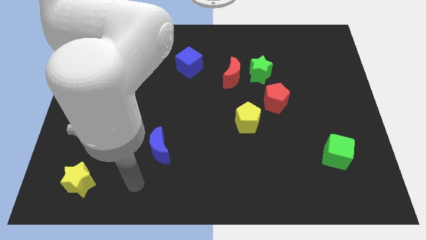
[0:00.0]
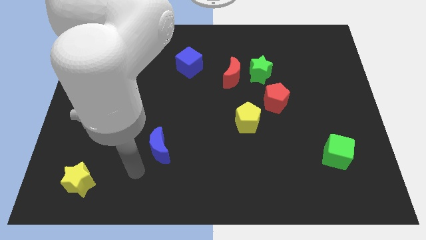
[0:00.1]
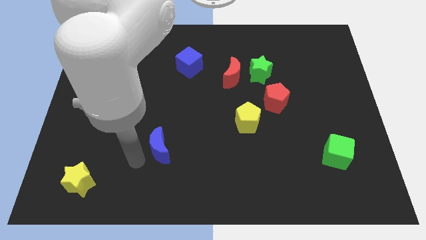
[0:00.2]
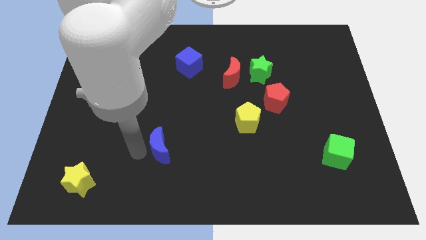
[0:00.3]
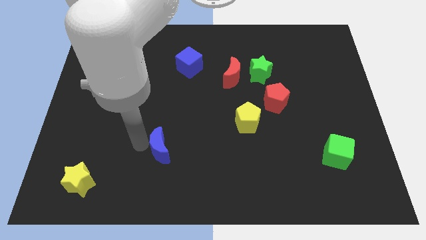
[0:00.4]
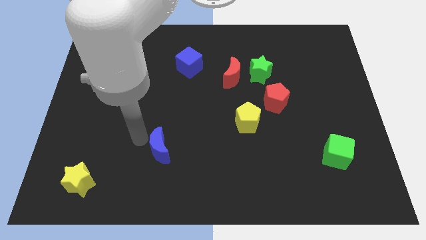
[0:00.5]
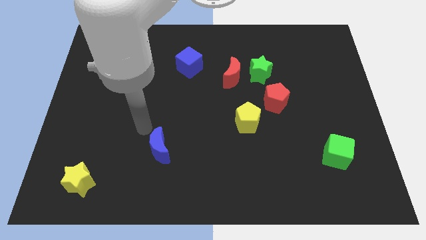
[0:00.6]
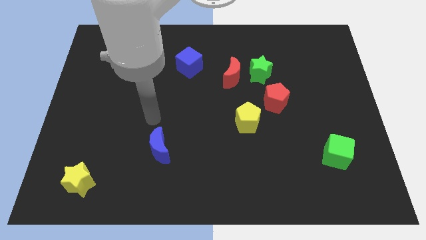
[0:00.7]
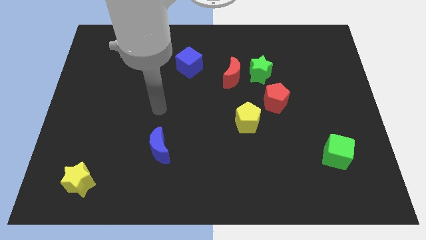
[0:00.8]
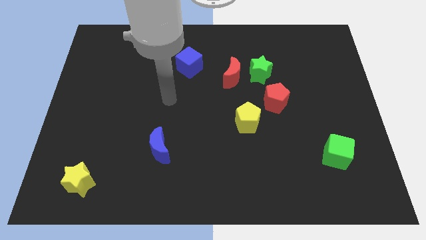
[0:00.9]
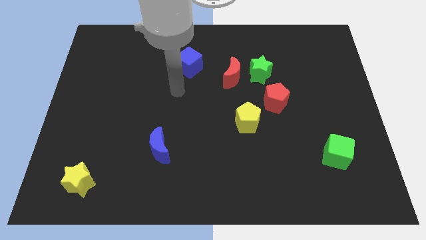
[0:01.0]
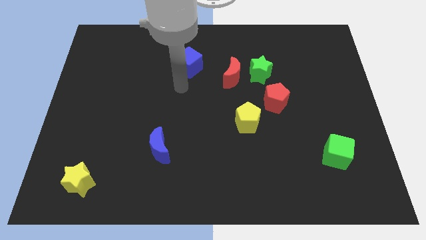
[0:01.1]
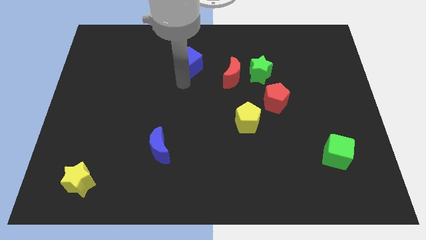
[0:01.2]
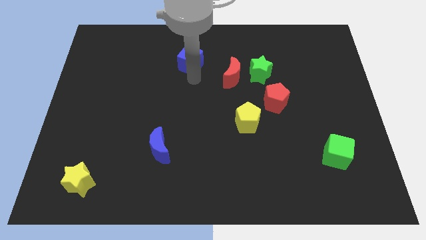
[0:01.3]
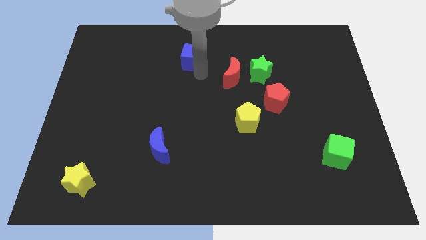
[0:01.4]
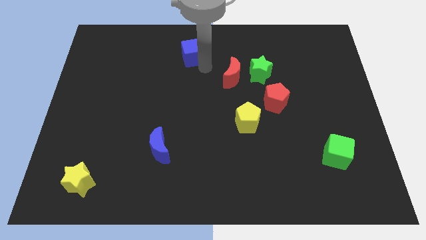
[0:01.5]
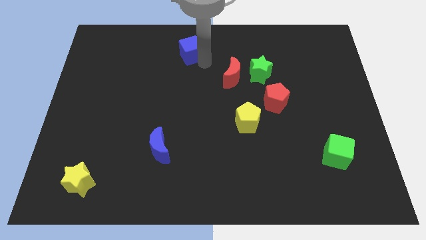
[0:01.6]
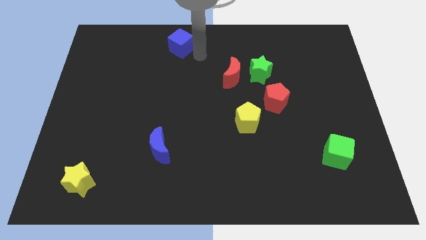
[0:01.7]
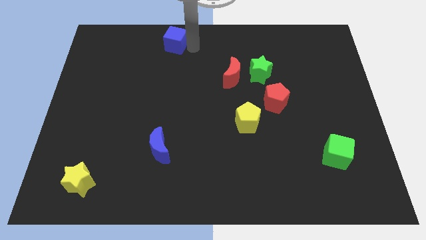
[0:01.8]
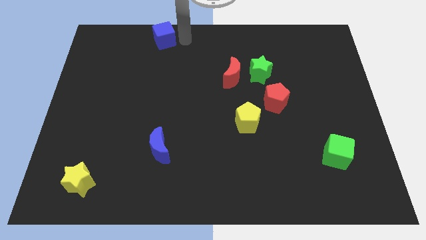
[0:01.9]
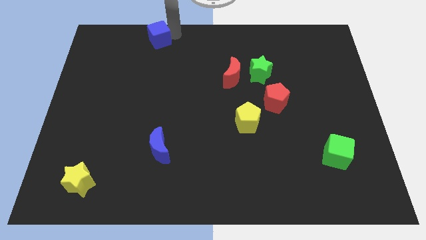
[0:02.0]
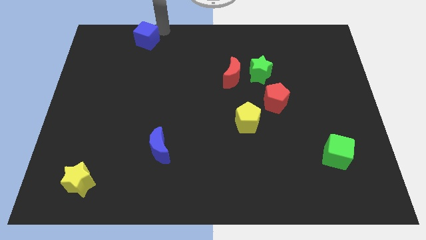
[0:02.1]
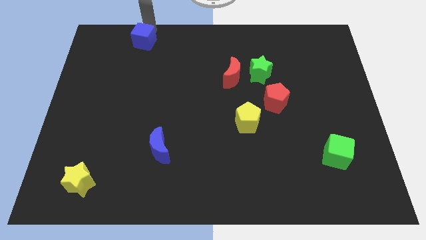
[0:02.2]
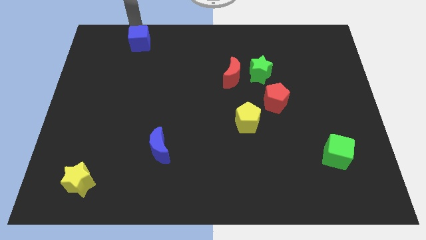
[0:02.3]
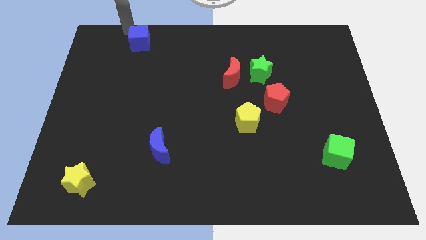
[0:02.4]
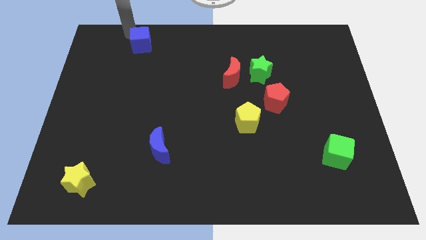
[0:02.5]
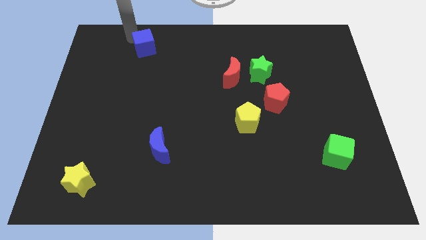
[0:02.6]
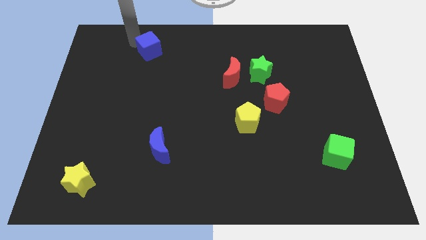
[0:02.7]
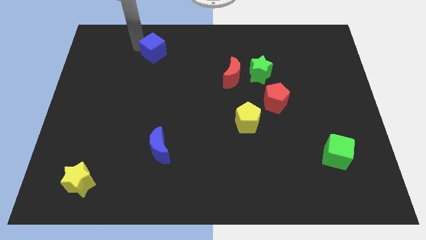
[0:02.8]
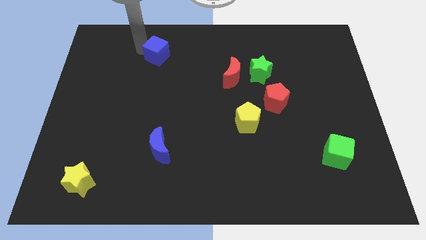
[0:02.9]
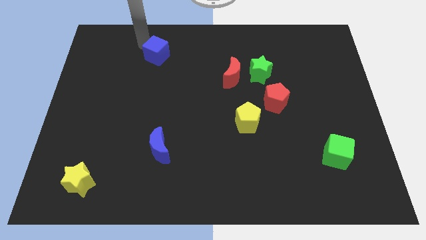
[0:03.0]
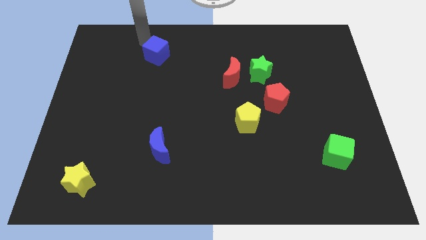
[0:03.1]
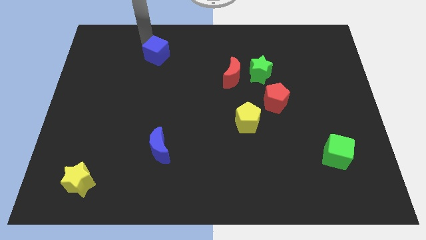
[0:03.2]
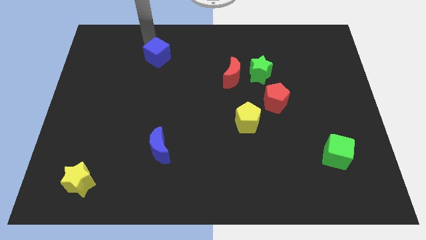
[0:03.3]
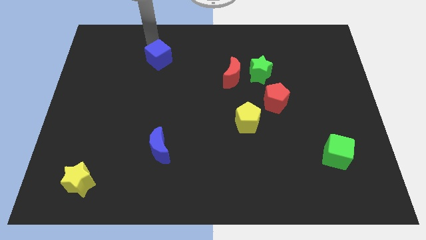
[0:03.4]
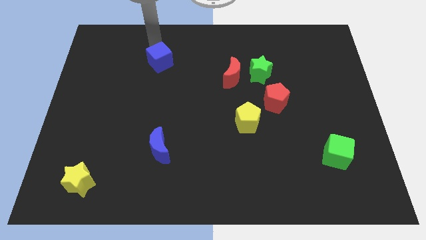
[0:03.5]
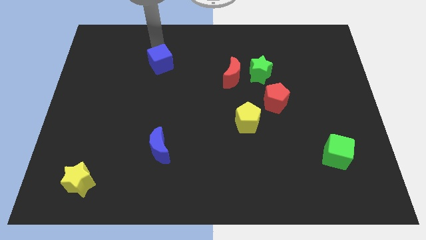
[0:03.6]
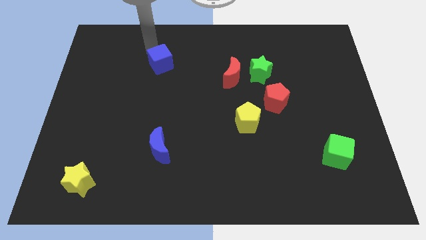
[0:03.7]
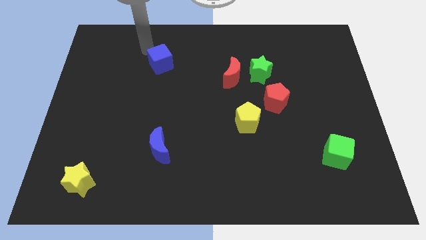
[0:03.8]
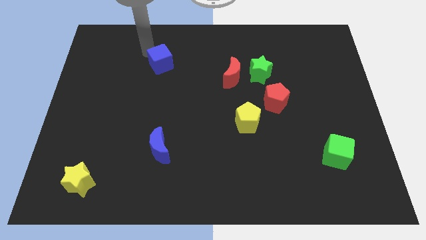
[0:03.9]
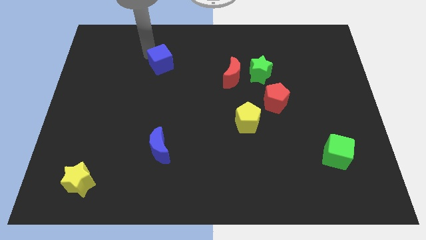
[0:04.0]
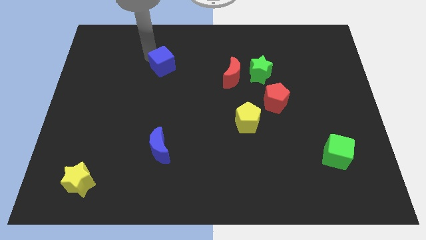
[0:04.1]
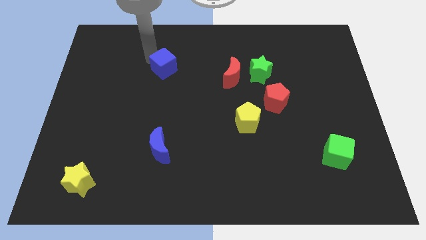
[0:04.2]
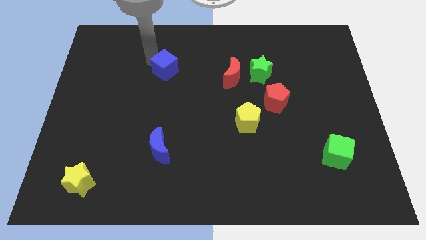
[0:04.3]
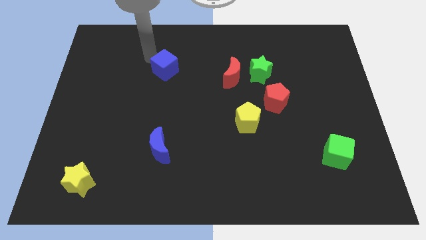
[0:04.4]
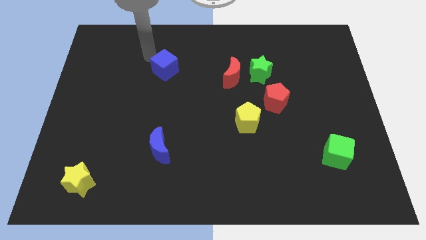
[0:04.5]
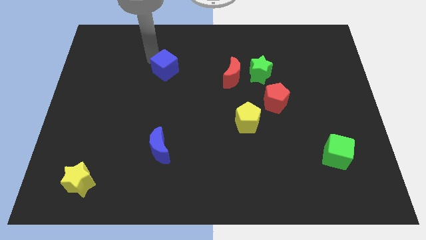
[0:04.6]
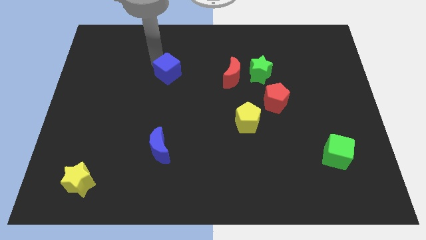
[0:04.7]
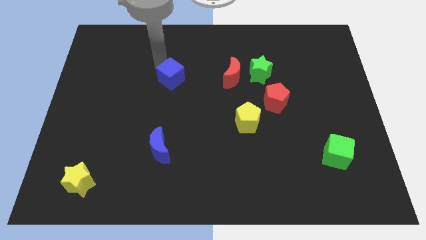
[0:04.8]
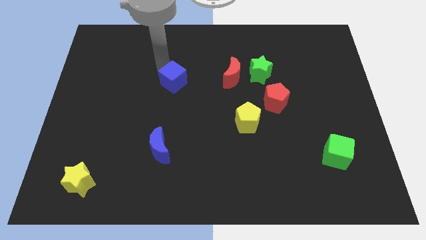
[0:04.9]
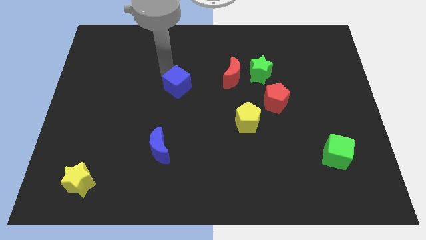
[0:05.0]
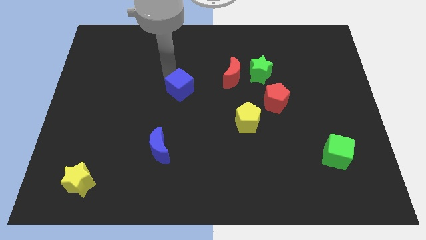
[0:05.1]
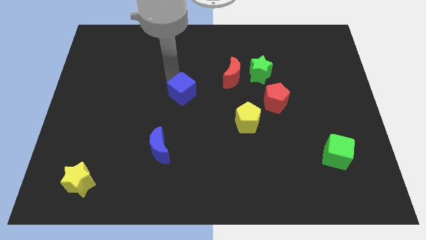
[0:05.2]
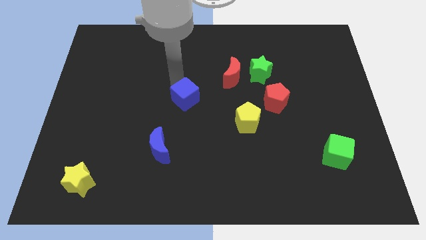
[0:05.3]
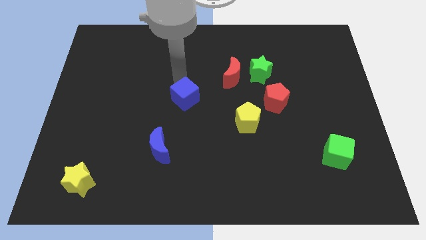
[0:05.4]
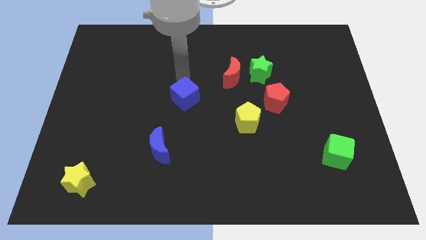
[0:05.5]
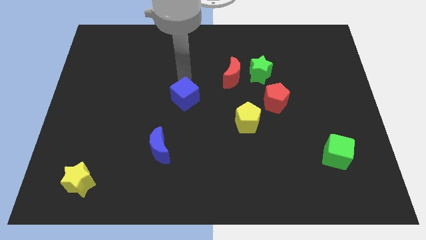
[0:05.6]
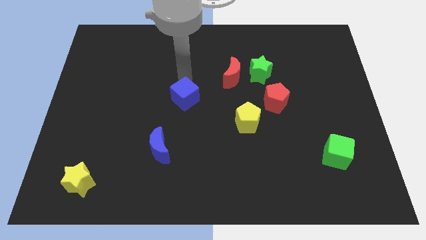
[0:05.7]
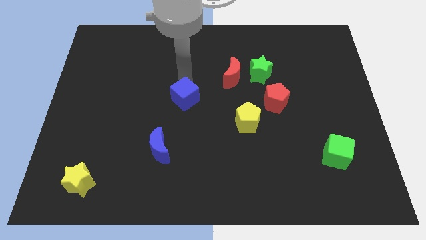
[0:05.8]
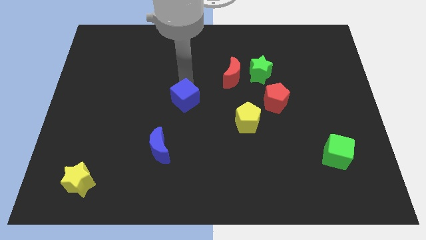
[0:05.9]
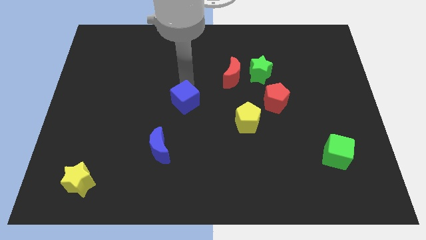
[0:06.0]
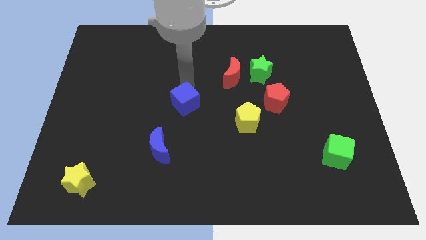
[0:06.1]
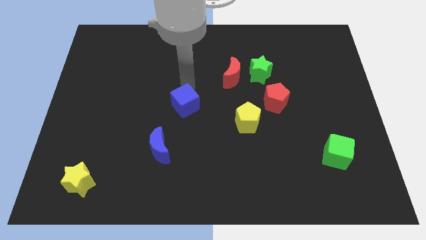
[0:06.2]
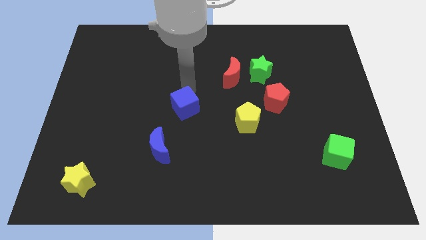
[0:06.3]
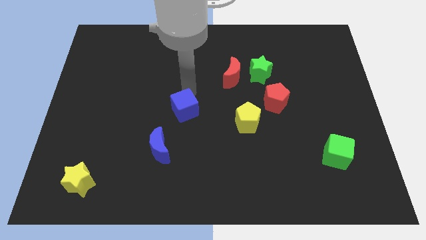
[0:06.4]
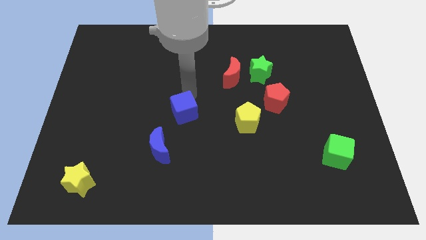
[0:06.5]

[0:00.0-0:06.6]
push the blue cube diagonally up and to the right of the blue moon
